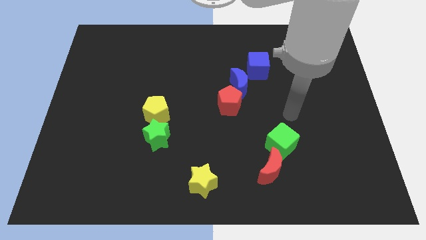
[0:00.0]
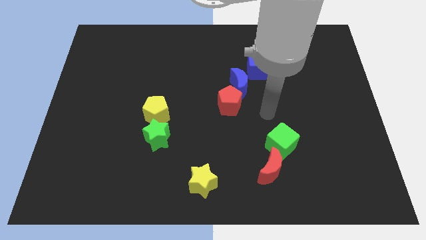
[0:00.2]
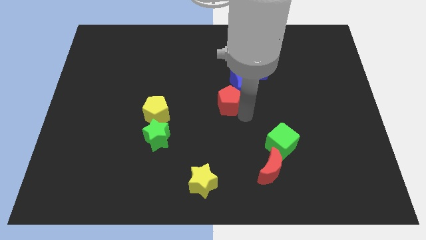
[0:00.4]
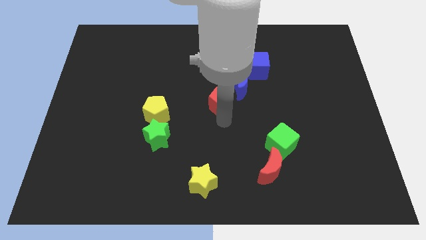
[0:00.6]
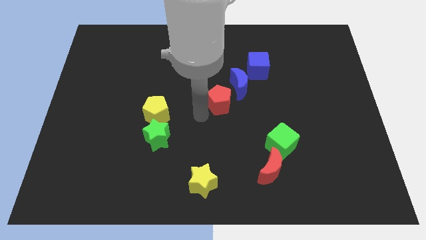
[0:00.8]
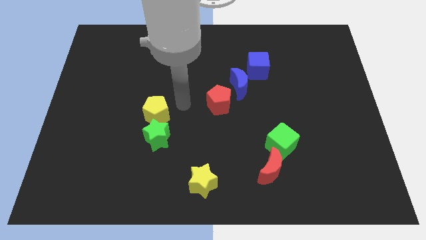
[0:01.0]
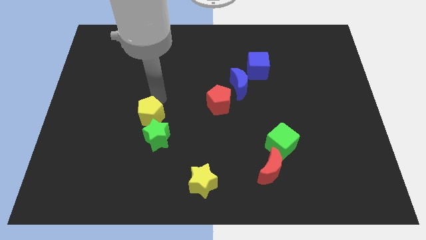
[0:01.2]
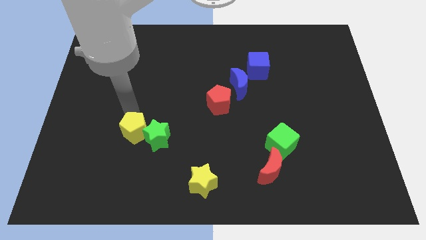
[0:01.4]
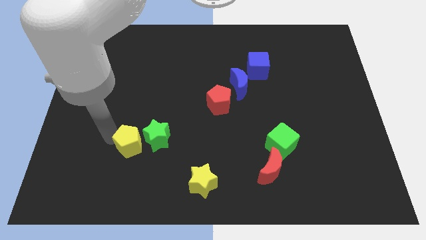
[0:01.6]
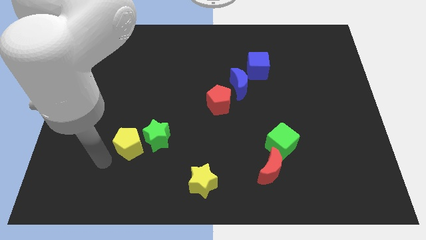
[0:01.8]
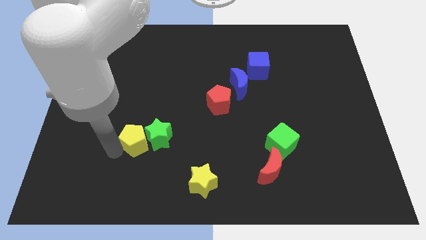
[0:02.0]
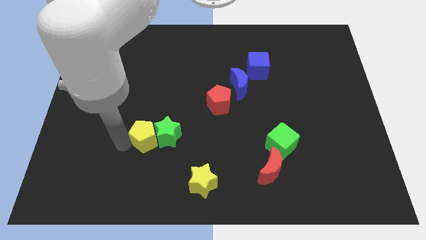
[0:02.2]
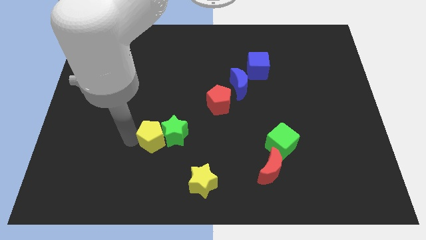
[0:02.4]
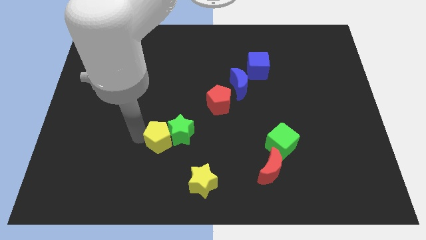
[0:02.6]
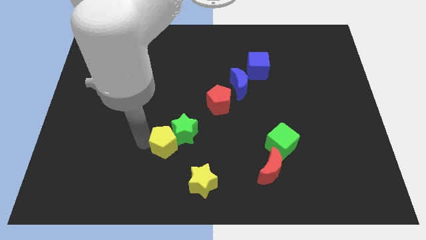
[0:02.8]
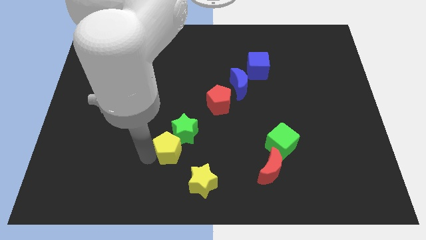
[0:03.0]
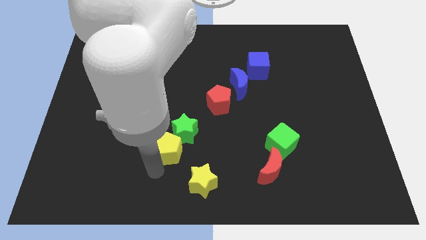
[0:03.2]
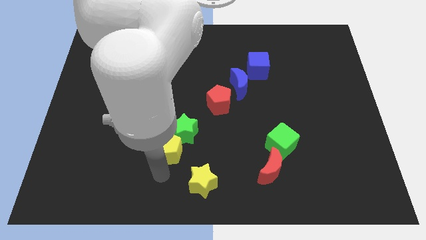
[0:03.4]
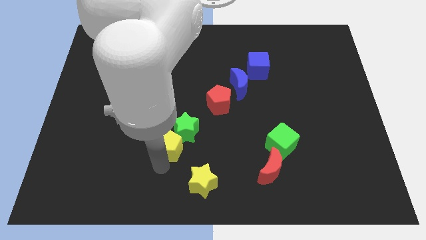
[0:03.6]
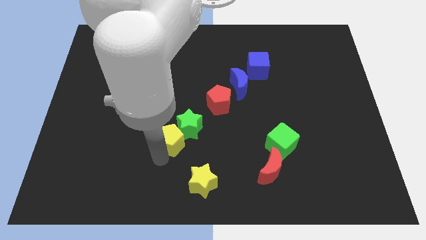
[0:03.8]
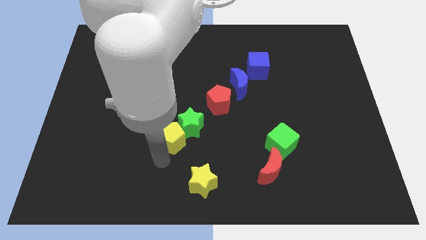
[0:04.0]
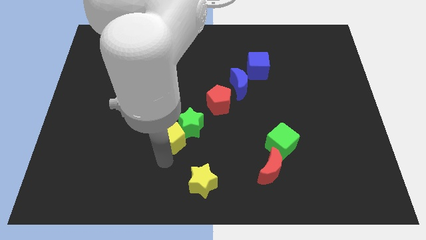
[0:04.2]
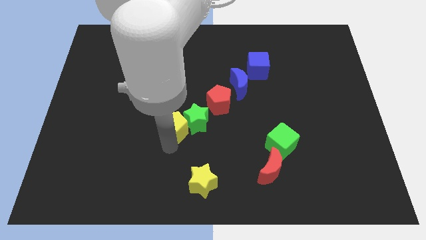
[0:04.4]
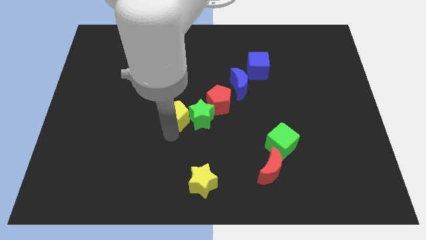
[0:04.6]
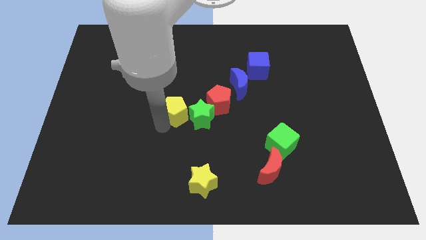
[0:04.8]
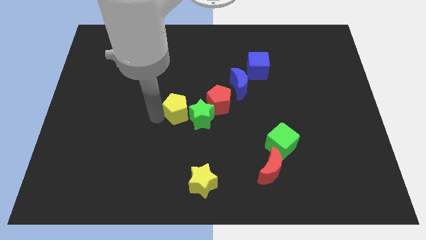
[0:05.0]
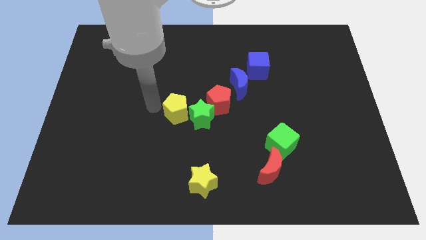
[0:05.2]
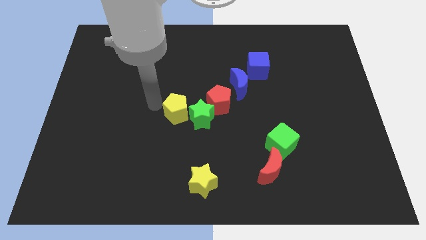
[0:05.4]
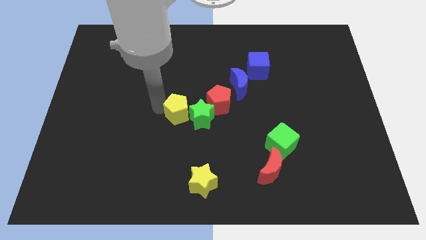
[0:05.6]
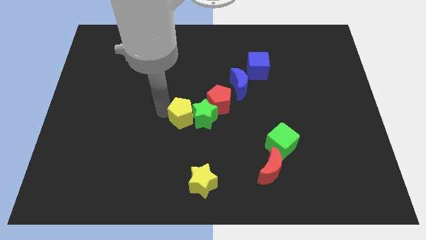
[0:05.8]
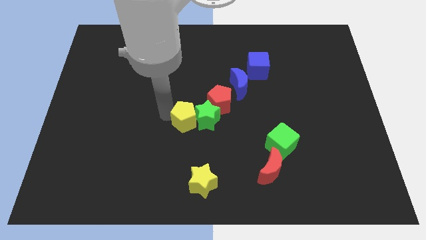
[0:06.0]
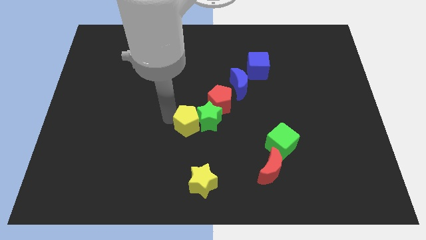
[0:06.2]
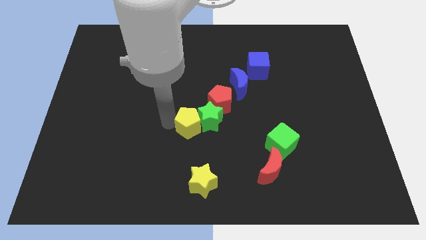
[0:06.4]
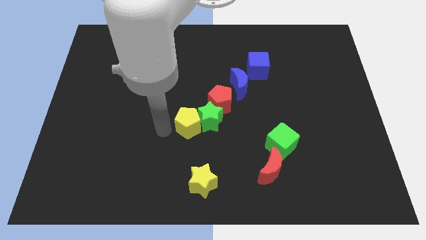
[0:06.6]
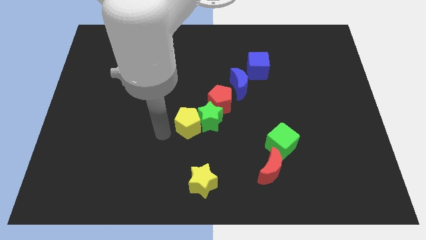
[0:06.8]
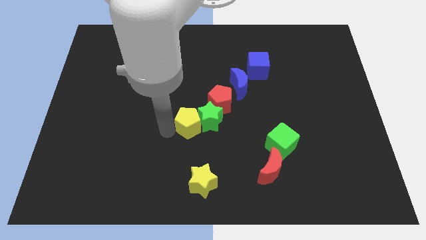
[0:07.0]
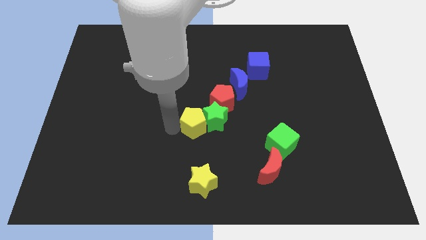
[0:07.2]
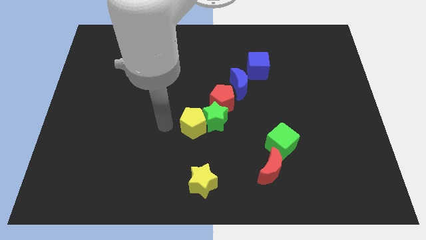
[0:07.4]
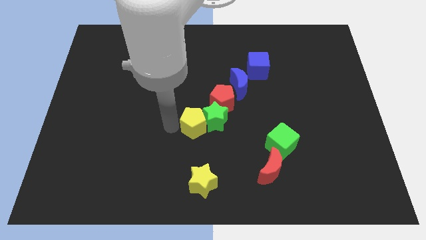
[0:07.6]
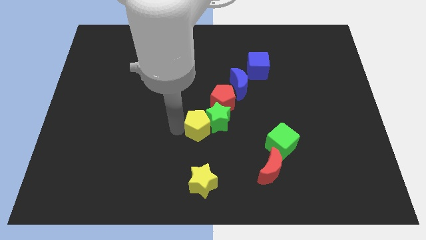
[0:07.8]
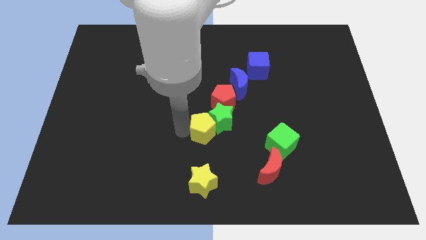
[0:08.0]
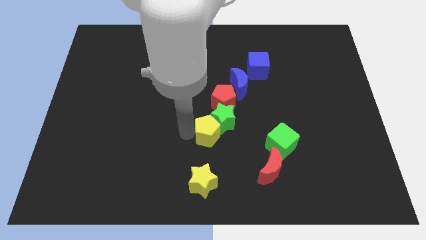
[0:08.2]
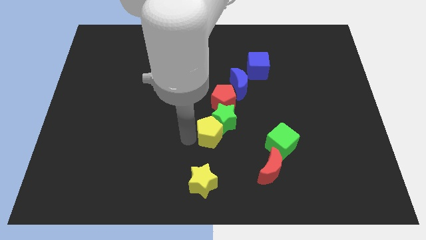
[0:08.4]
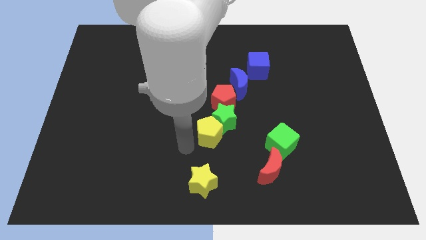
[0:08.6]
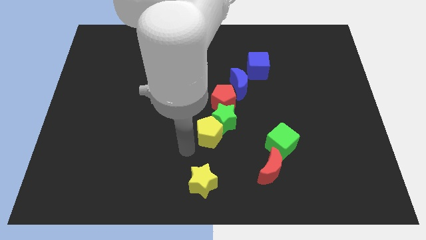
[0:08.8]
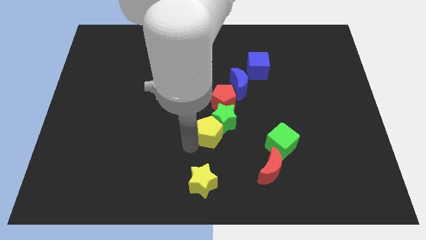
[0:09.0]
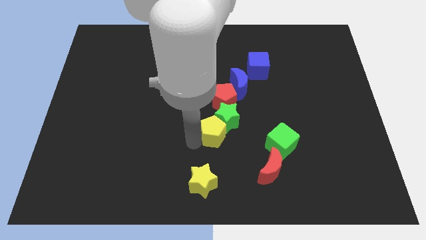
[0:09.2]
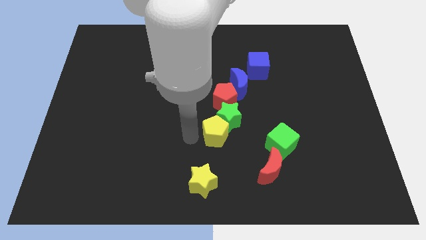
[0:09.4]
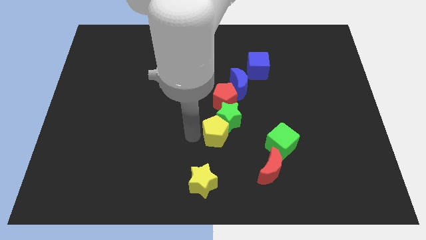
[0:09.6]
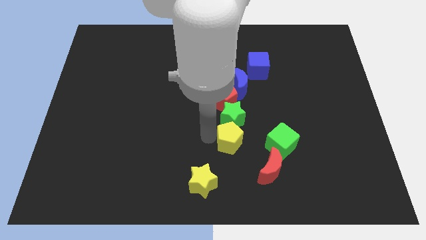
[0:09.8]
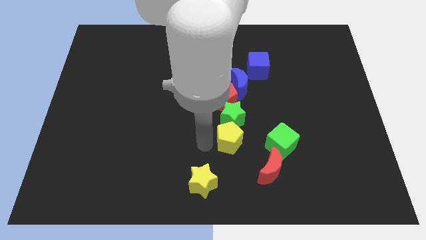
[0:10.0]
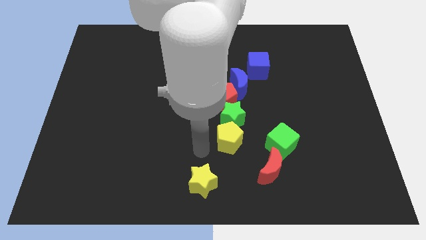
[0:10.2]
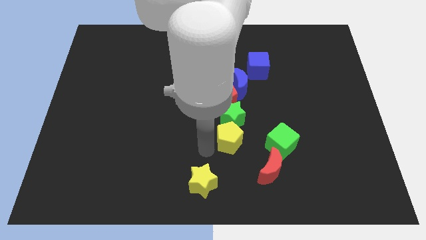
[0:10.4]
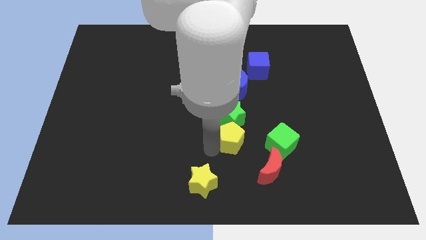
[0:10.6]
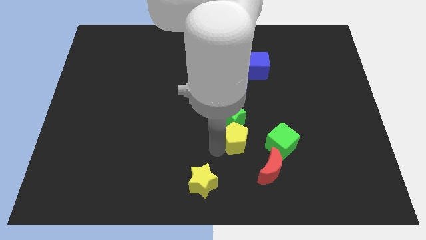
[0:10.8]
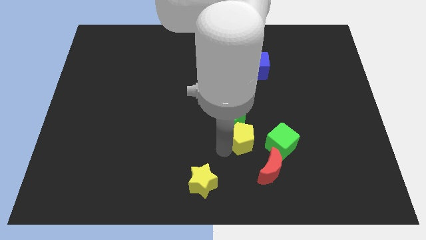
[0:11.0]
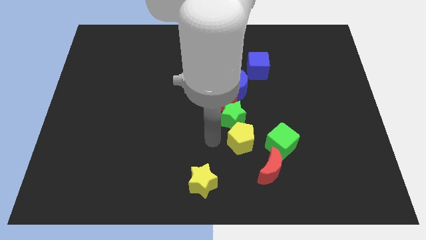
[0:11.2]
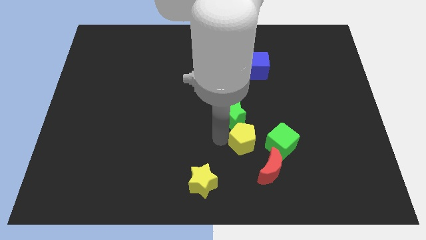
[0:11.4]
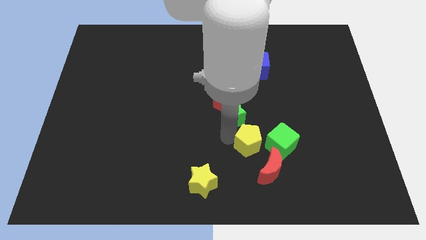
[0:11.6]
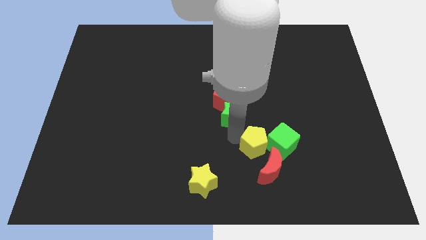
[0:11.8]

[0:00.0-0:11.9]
put the yellow pentagon close to the green cube
